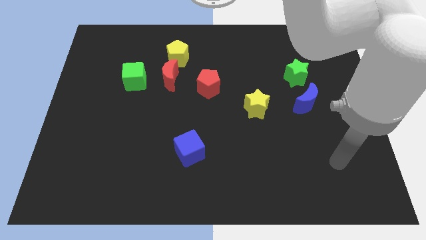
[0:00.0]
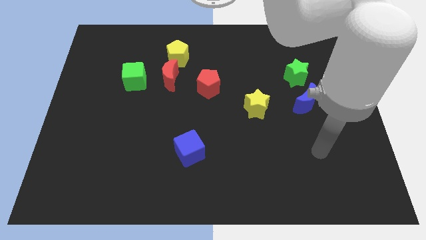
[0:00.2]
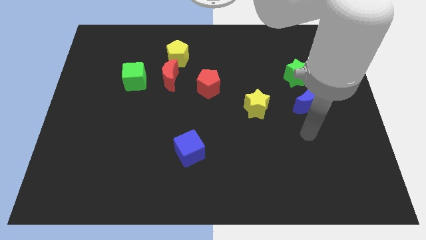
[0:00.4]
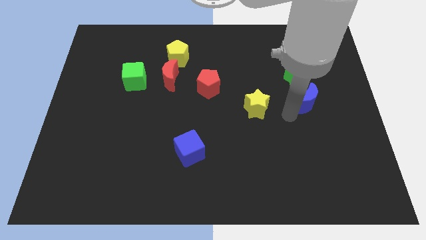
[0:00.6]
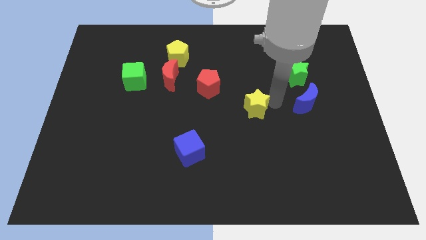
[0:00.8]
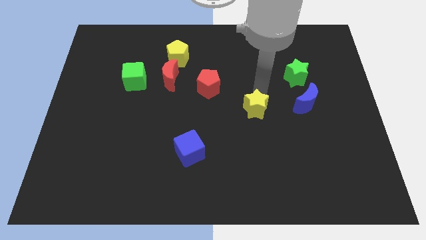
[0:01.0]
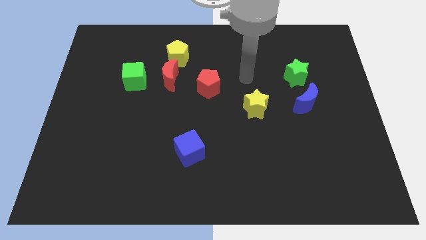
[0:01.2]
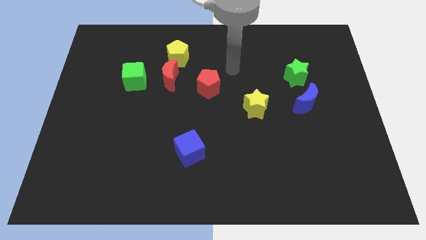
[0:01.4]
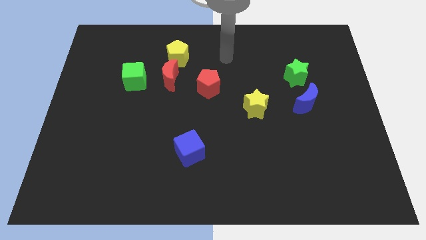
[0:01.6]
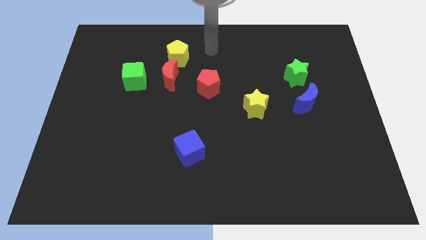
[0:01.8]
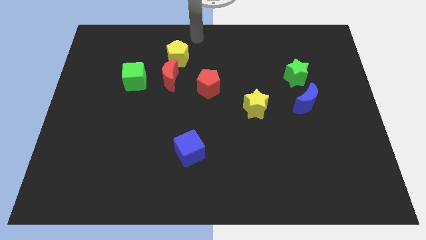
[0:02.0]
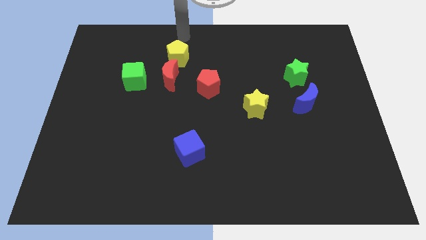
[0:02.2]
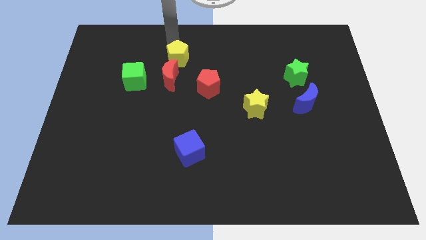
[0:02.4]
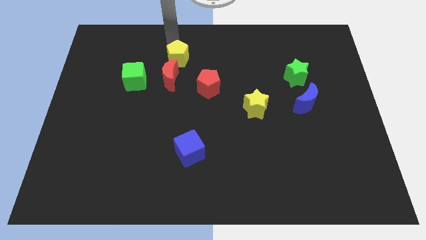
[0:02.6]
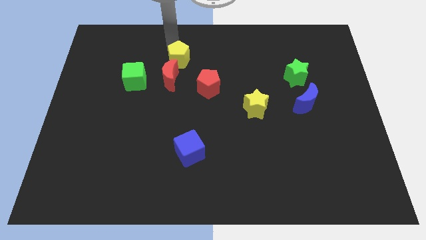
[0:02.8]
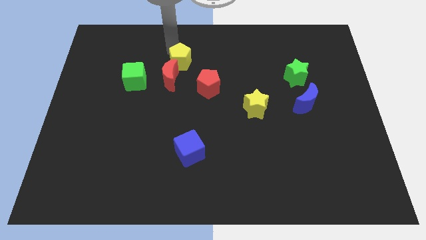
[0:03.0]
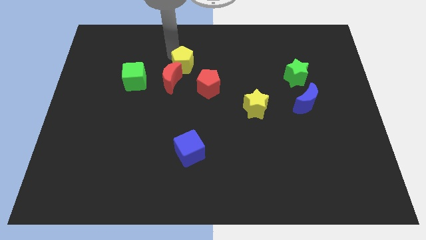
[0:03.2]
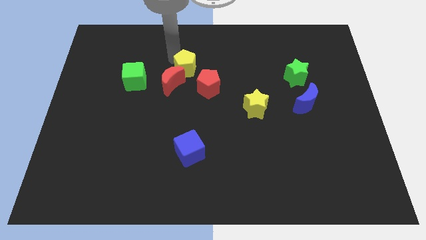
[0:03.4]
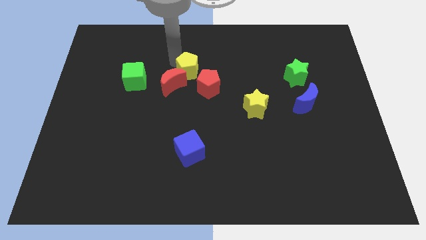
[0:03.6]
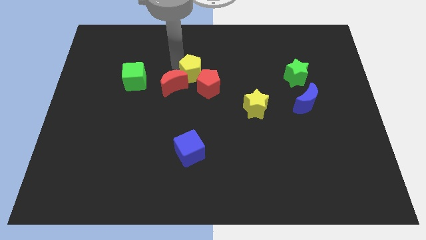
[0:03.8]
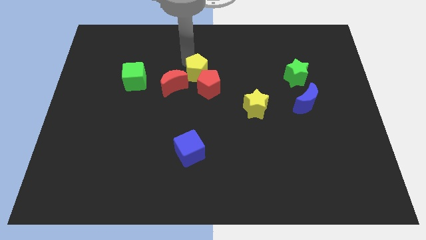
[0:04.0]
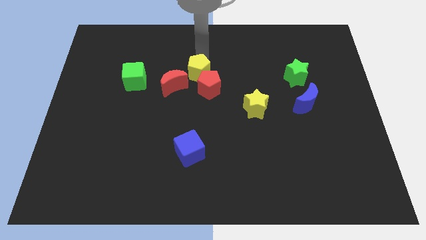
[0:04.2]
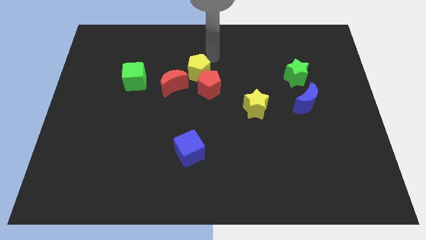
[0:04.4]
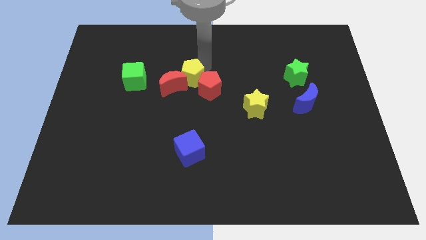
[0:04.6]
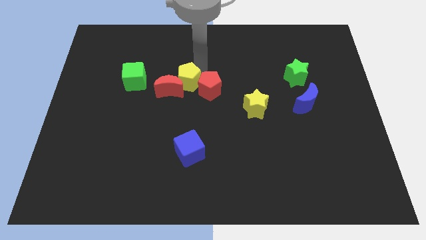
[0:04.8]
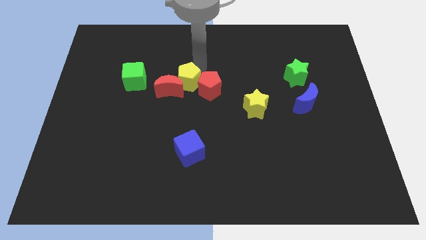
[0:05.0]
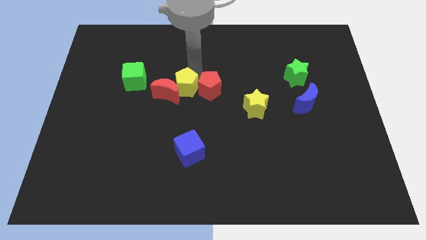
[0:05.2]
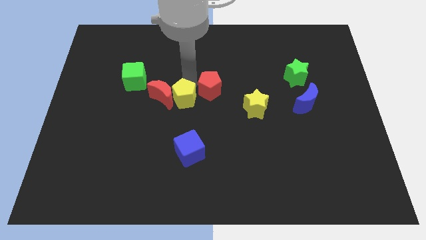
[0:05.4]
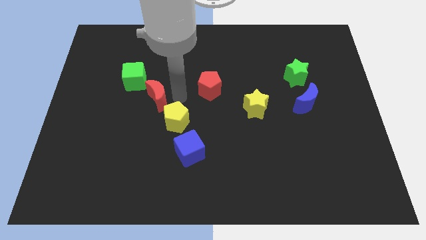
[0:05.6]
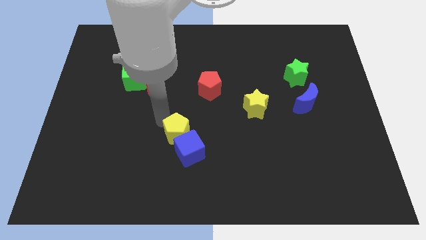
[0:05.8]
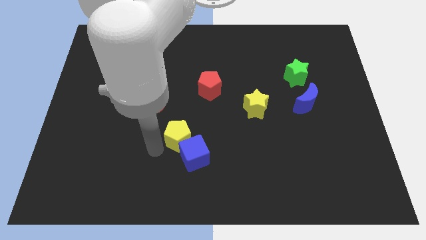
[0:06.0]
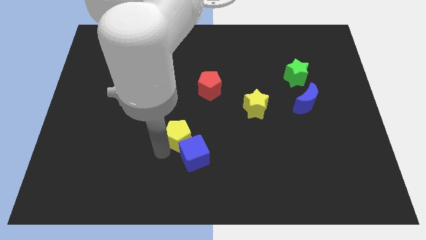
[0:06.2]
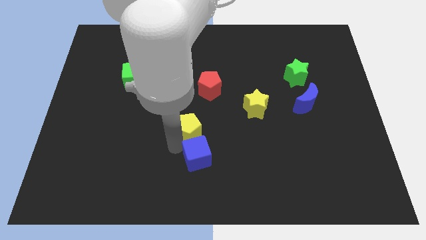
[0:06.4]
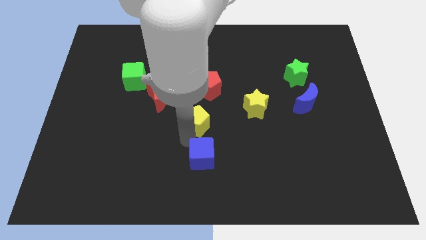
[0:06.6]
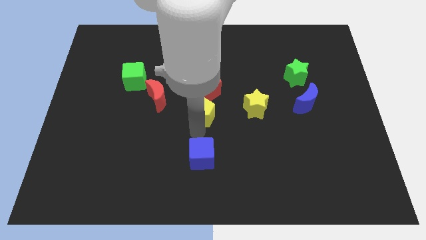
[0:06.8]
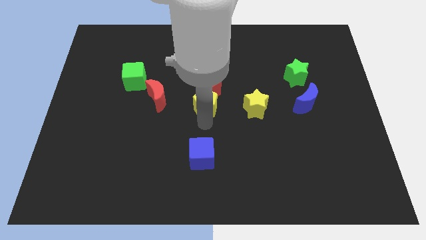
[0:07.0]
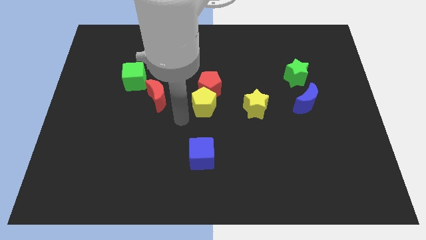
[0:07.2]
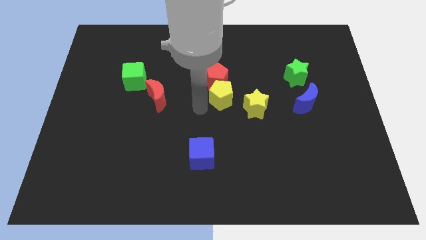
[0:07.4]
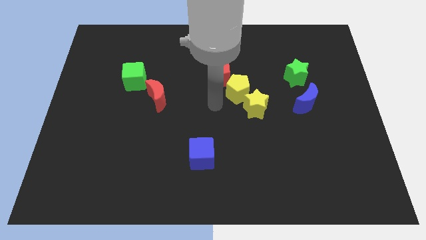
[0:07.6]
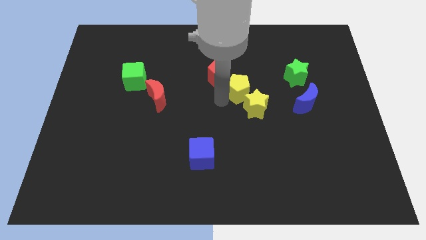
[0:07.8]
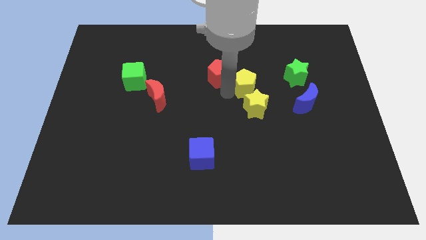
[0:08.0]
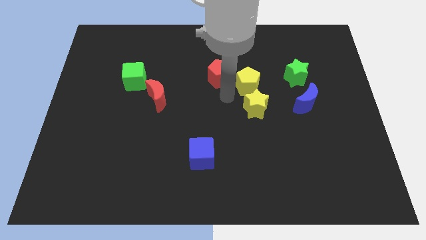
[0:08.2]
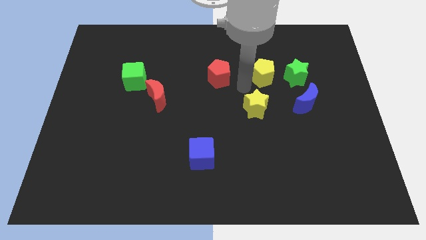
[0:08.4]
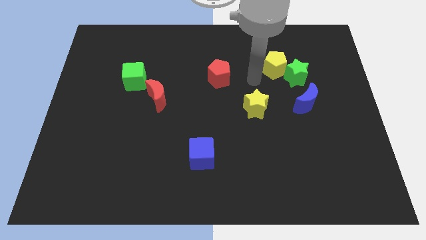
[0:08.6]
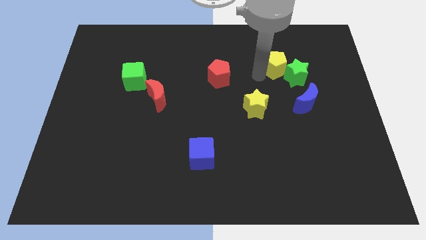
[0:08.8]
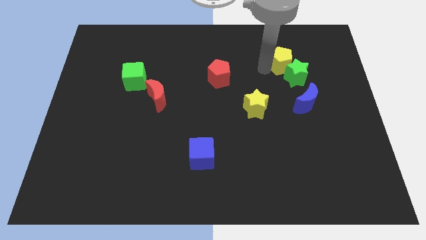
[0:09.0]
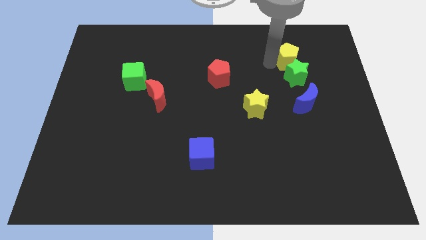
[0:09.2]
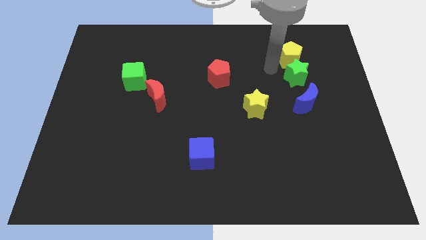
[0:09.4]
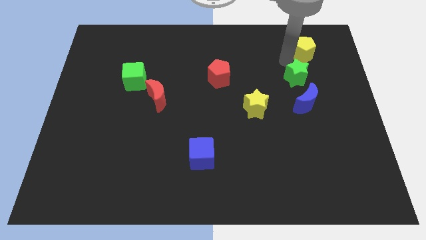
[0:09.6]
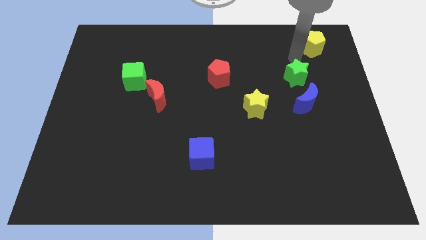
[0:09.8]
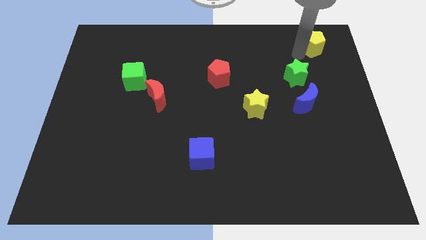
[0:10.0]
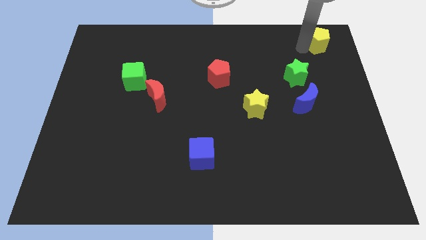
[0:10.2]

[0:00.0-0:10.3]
move the yellow pentagon to the upper right corner

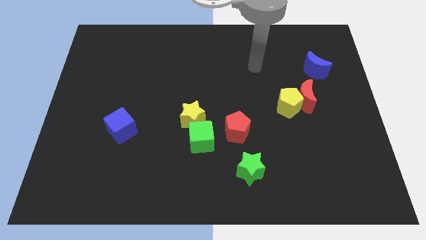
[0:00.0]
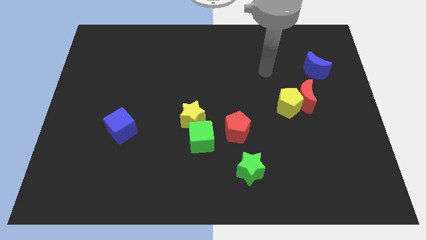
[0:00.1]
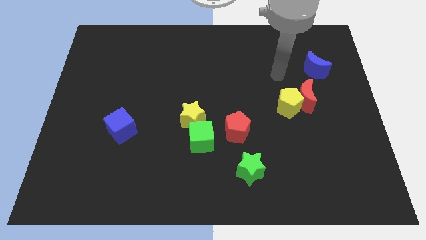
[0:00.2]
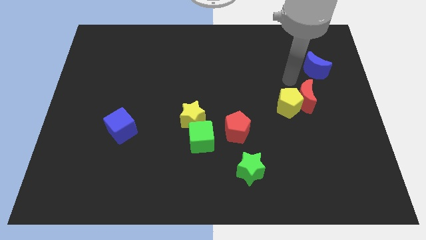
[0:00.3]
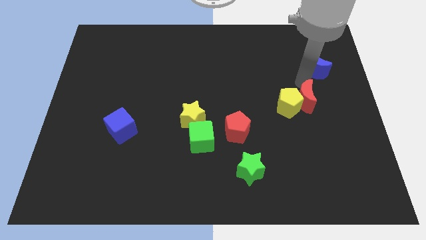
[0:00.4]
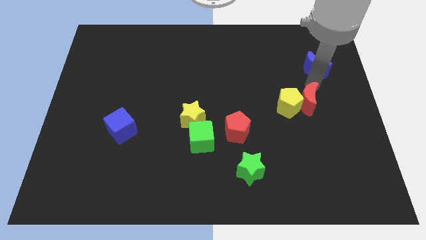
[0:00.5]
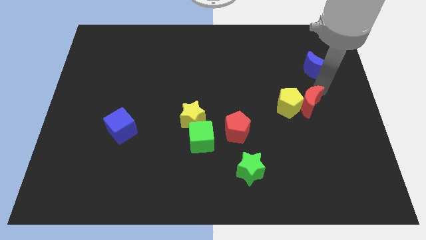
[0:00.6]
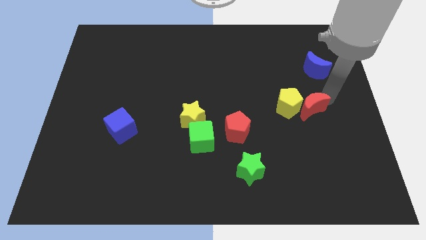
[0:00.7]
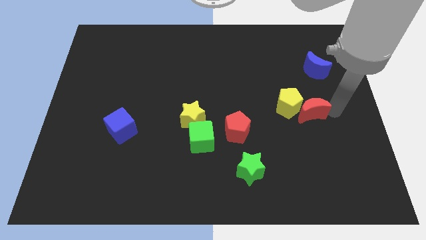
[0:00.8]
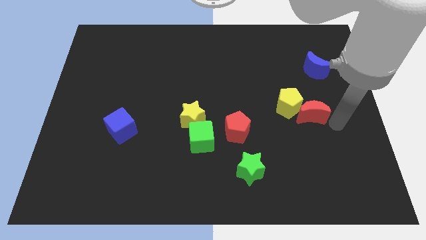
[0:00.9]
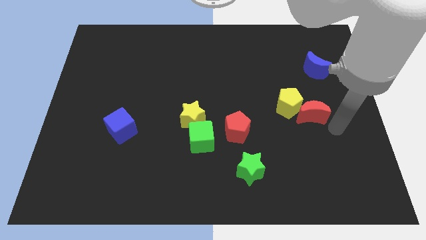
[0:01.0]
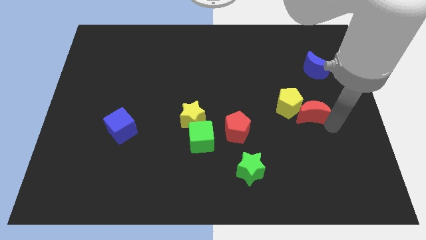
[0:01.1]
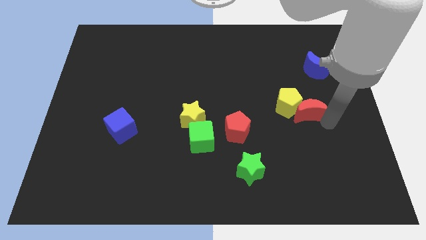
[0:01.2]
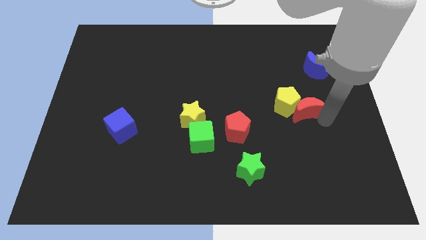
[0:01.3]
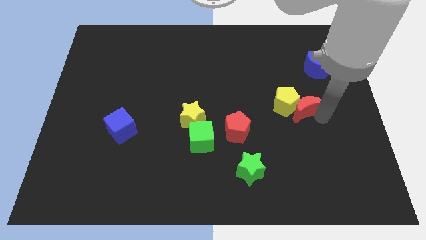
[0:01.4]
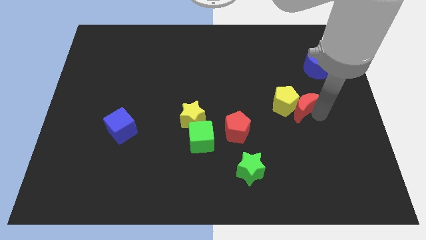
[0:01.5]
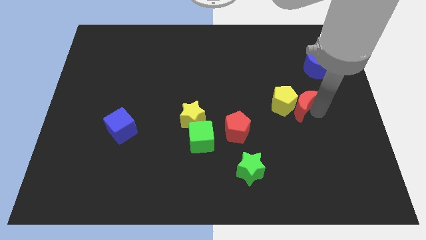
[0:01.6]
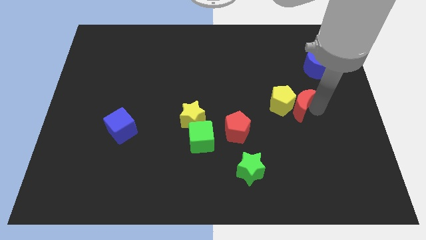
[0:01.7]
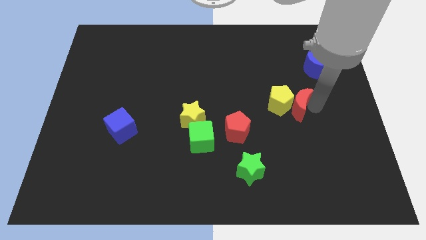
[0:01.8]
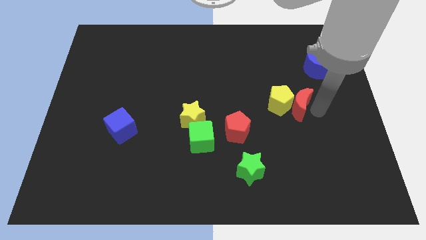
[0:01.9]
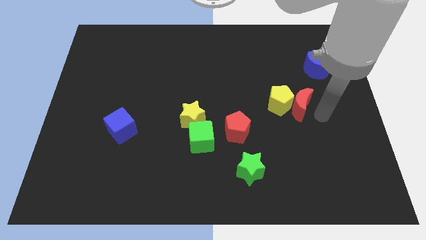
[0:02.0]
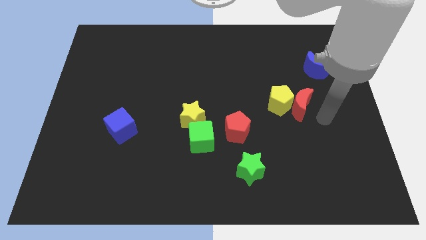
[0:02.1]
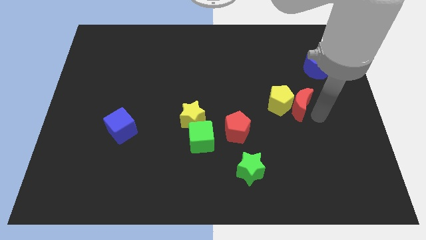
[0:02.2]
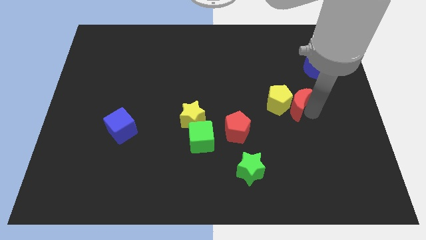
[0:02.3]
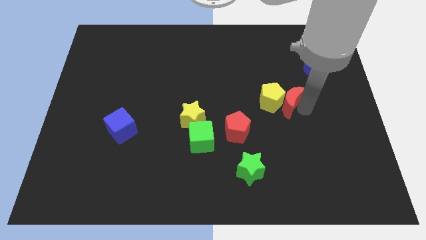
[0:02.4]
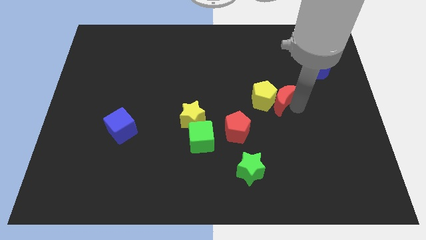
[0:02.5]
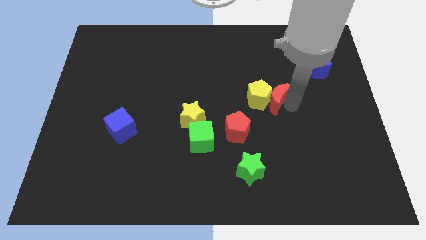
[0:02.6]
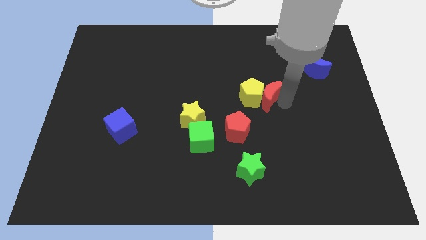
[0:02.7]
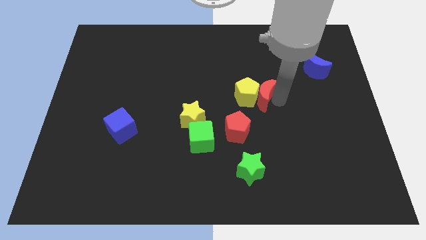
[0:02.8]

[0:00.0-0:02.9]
put the red moon to the center of the board
